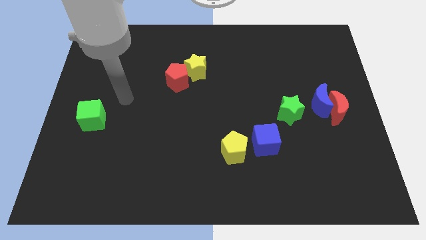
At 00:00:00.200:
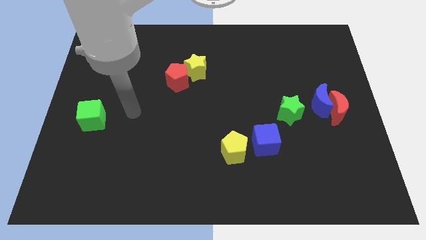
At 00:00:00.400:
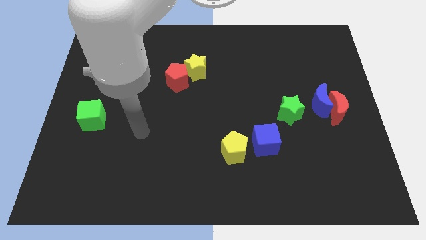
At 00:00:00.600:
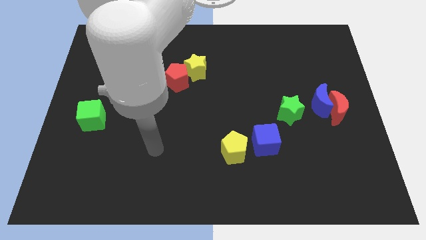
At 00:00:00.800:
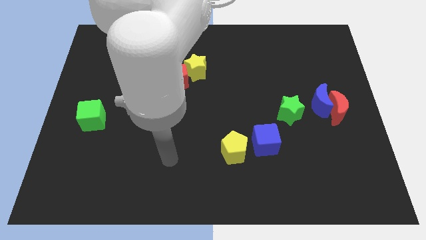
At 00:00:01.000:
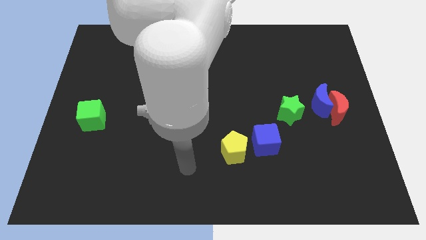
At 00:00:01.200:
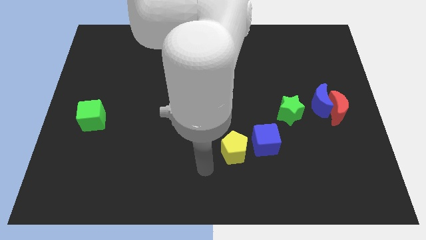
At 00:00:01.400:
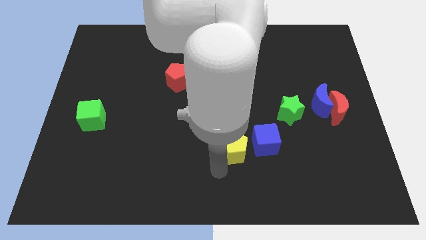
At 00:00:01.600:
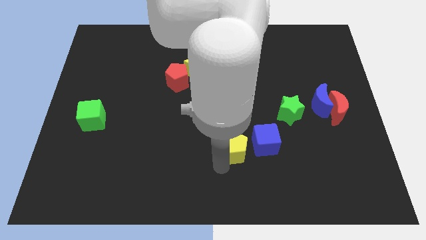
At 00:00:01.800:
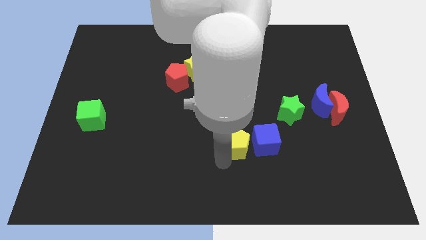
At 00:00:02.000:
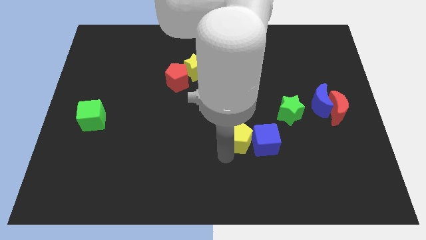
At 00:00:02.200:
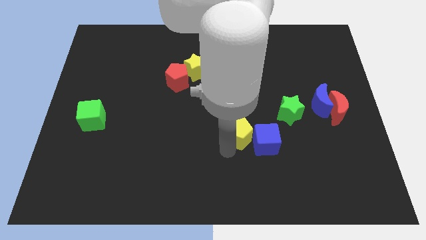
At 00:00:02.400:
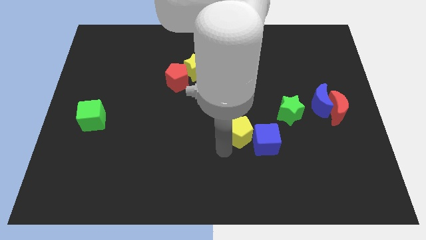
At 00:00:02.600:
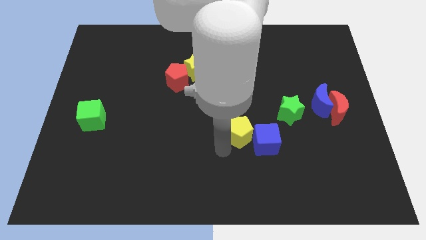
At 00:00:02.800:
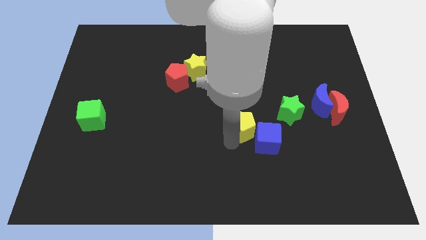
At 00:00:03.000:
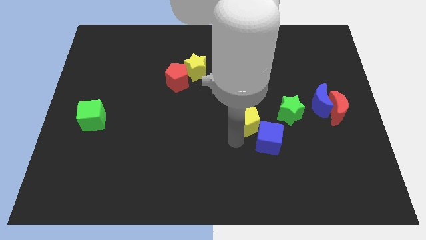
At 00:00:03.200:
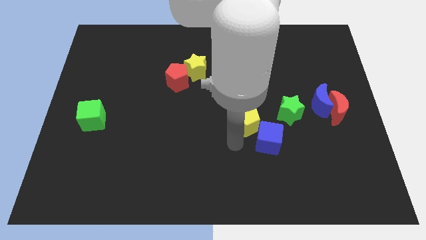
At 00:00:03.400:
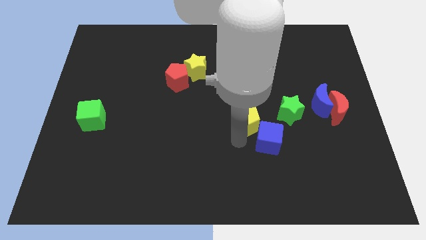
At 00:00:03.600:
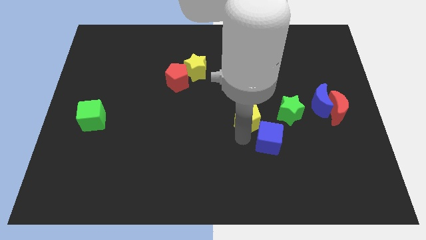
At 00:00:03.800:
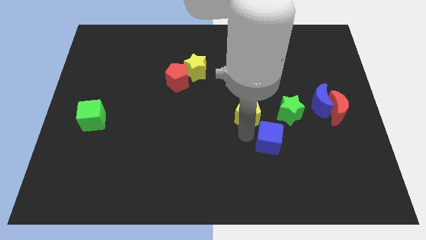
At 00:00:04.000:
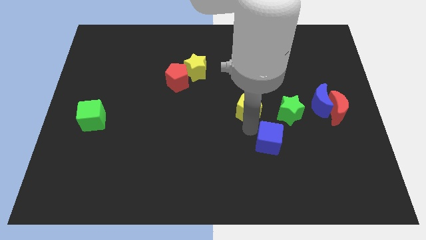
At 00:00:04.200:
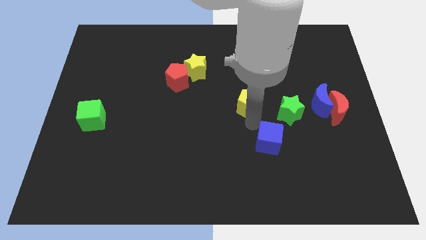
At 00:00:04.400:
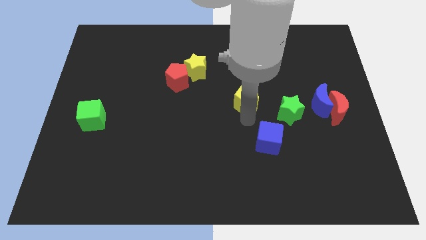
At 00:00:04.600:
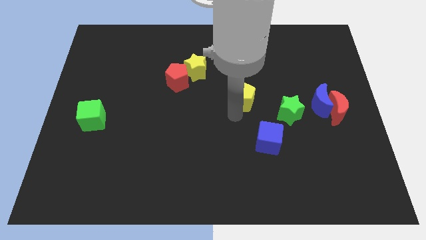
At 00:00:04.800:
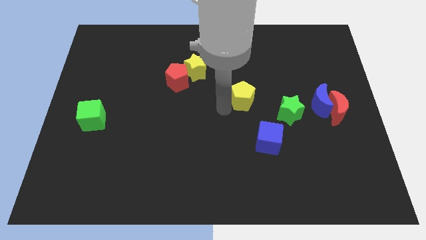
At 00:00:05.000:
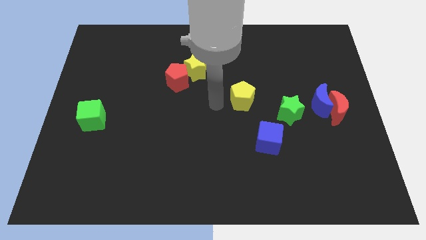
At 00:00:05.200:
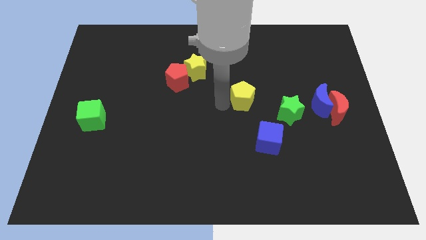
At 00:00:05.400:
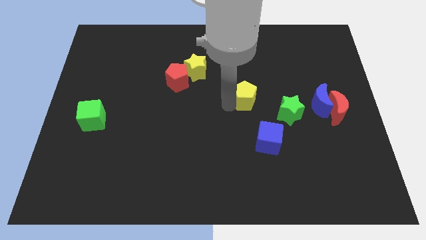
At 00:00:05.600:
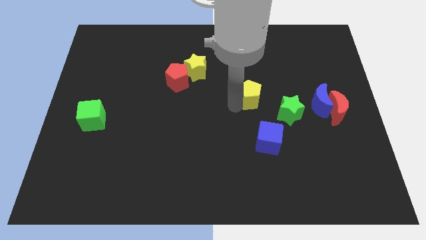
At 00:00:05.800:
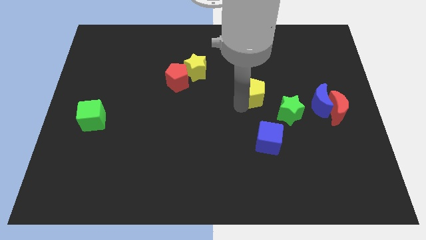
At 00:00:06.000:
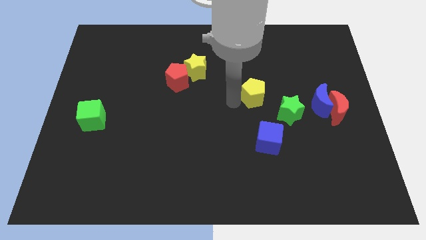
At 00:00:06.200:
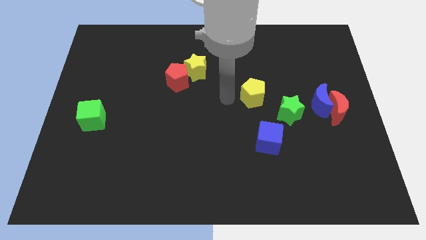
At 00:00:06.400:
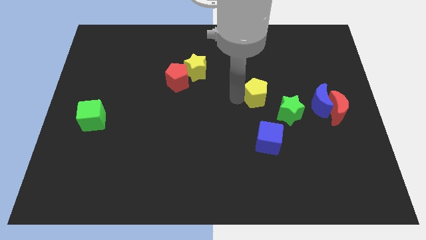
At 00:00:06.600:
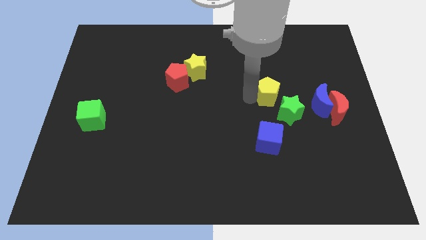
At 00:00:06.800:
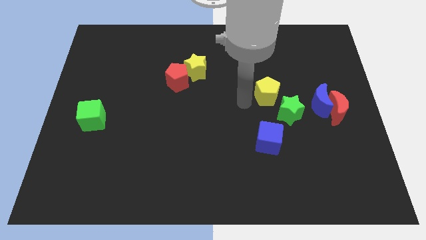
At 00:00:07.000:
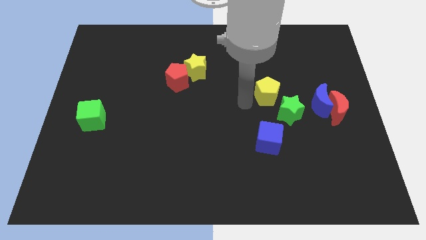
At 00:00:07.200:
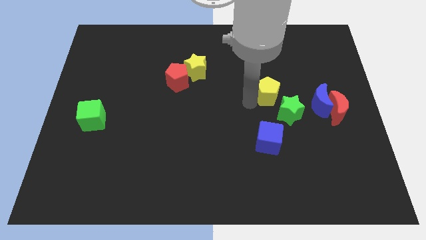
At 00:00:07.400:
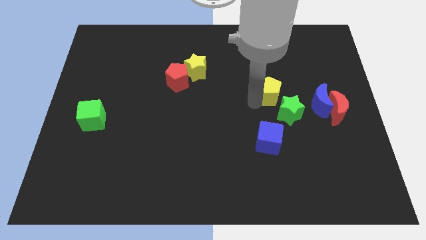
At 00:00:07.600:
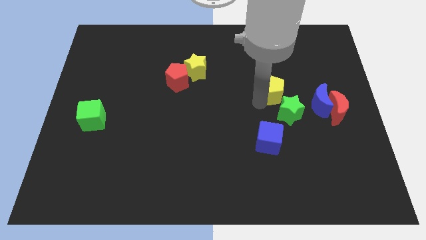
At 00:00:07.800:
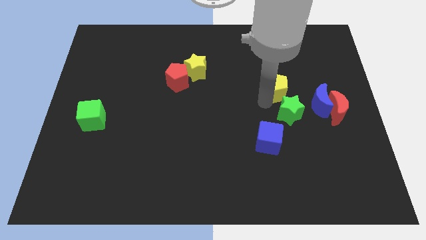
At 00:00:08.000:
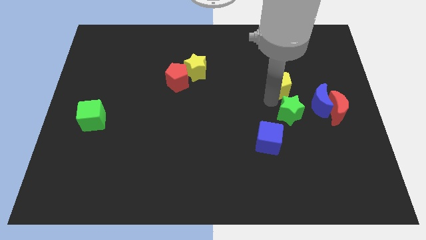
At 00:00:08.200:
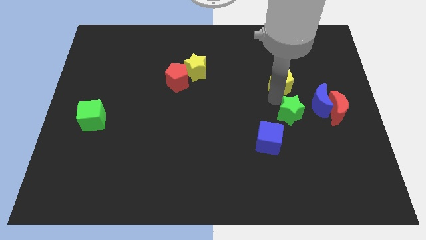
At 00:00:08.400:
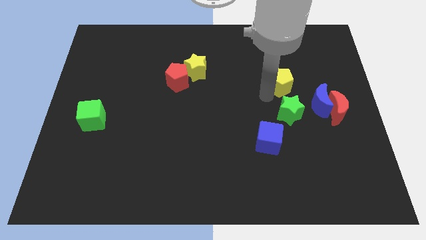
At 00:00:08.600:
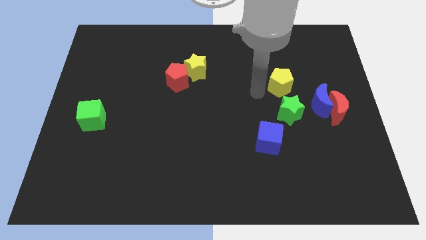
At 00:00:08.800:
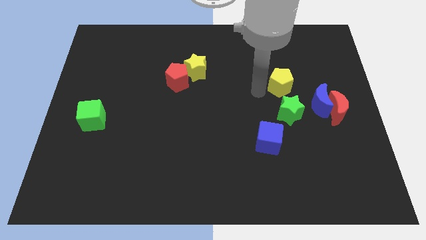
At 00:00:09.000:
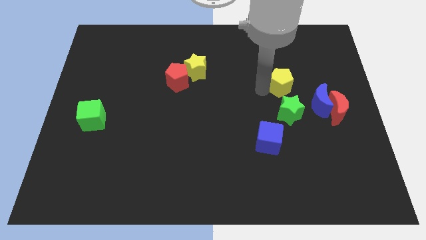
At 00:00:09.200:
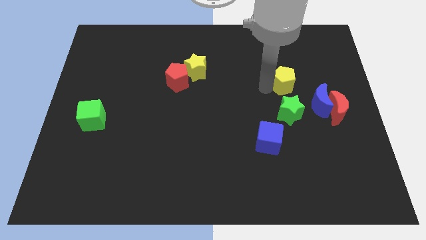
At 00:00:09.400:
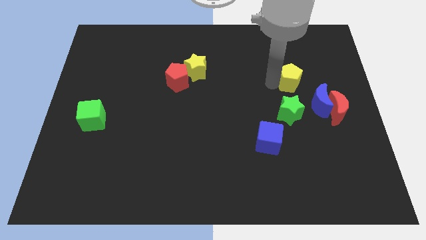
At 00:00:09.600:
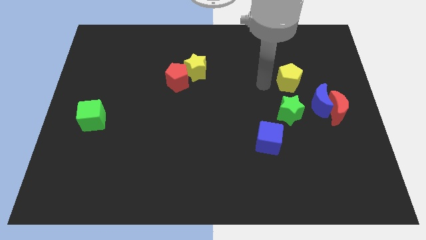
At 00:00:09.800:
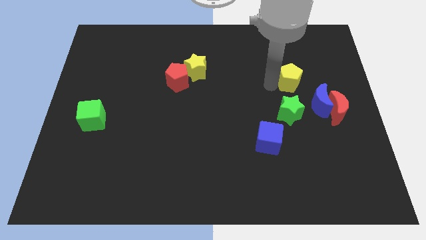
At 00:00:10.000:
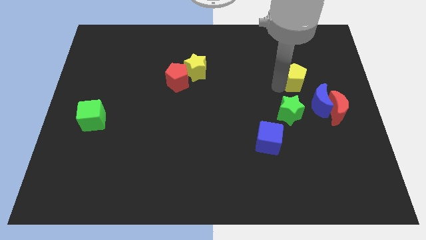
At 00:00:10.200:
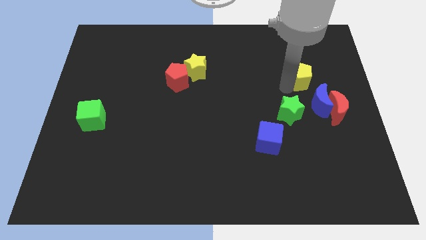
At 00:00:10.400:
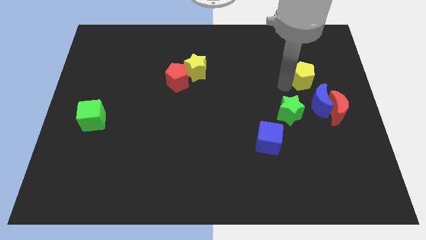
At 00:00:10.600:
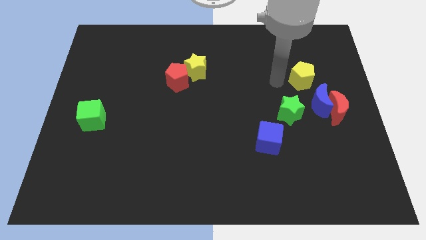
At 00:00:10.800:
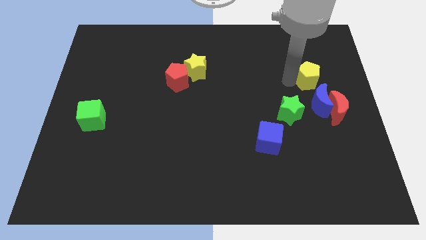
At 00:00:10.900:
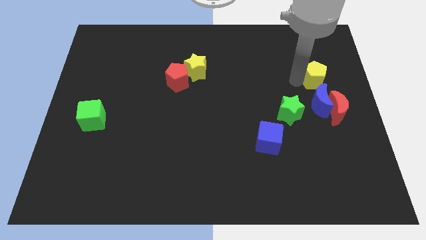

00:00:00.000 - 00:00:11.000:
push the yellow pentagon above the red moon
